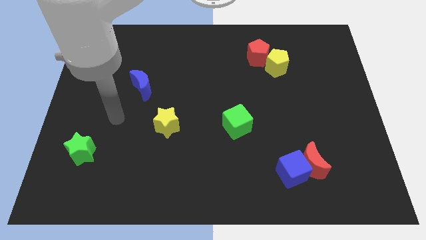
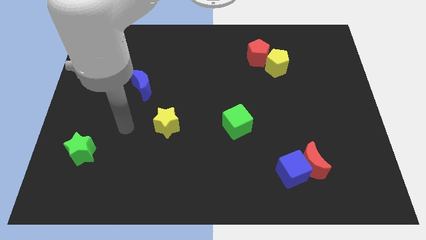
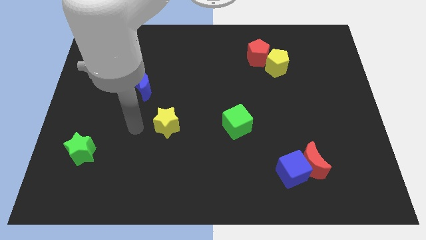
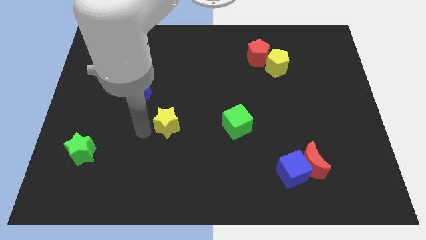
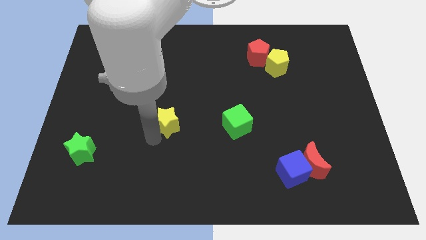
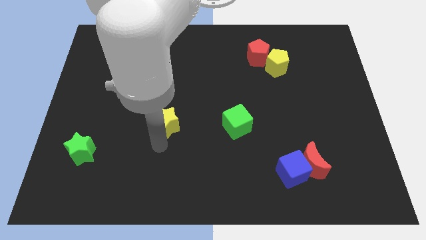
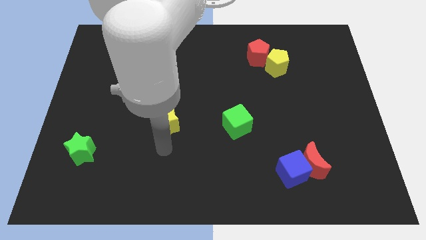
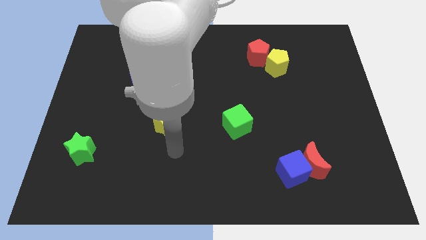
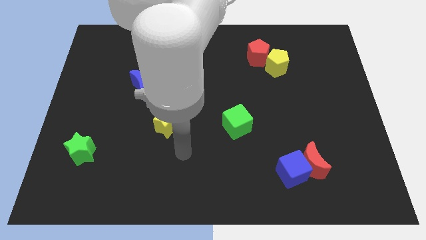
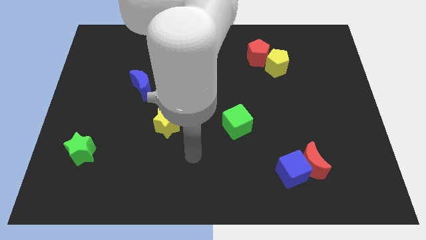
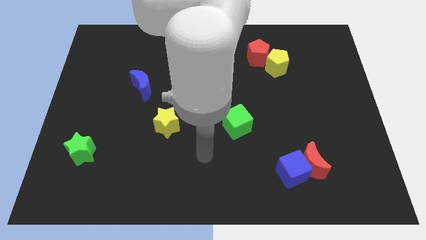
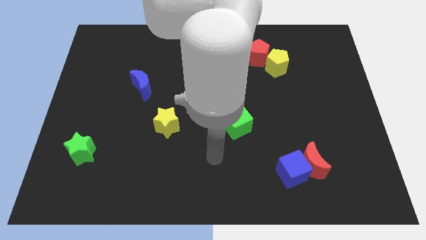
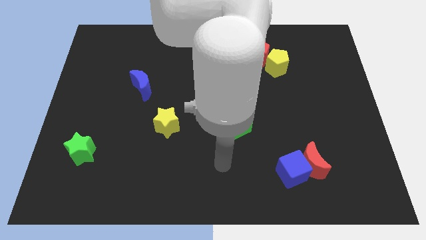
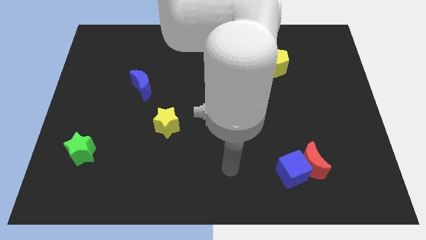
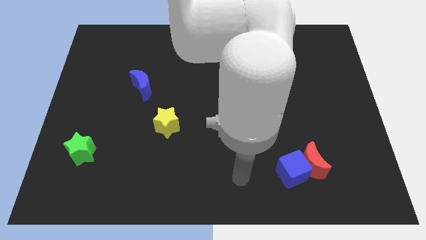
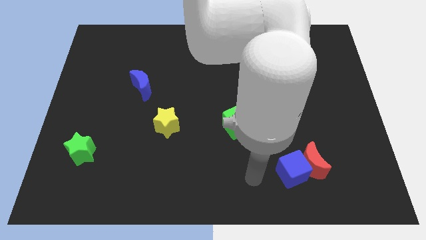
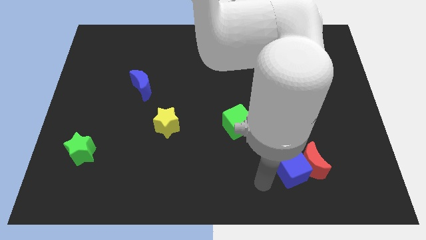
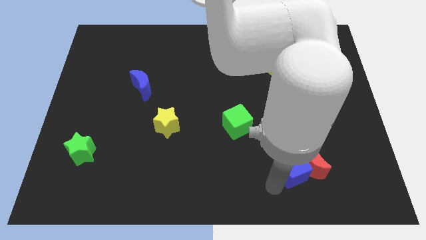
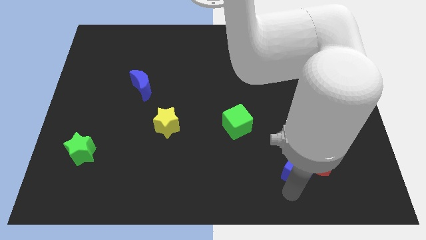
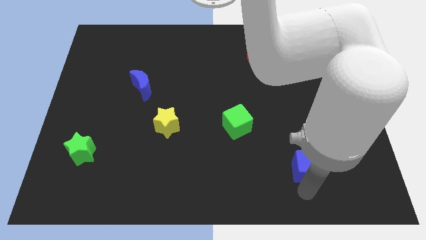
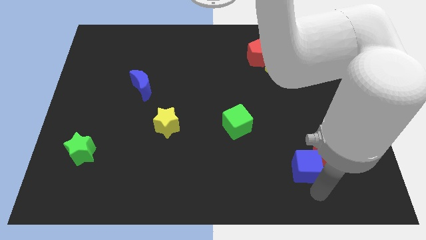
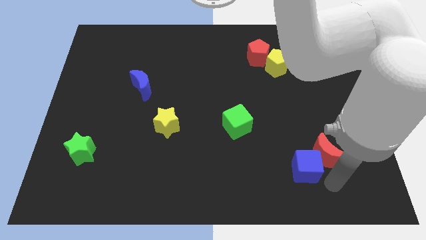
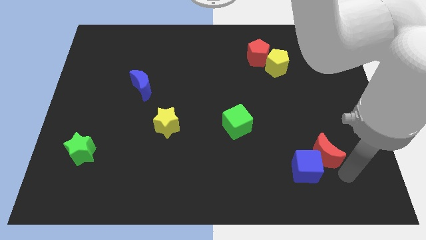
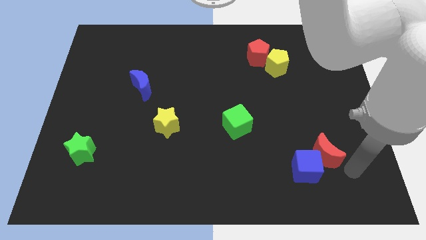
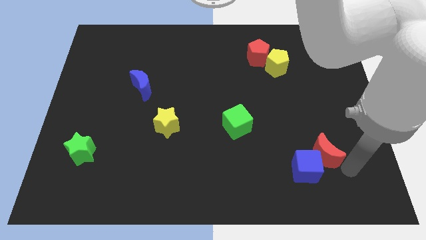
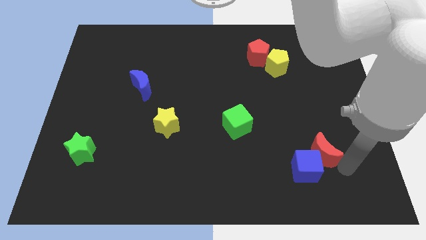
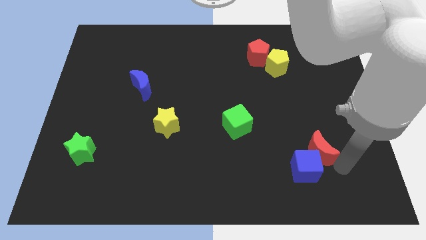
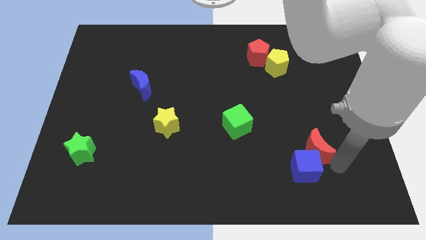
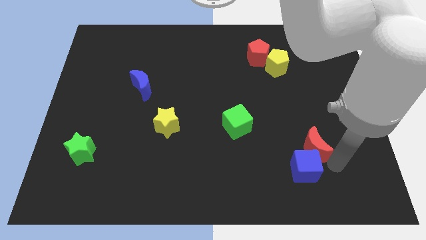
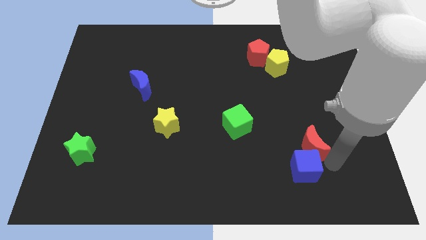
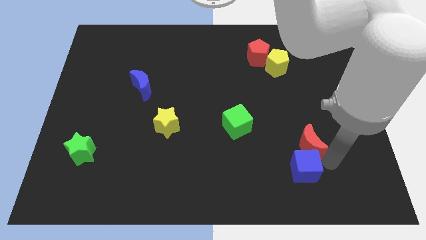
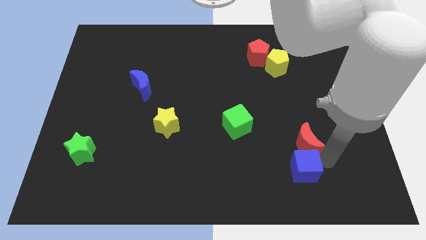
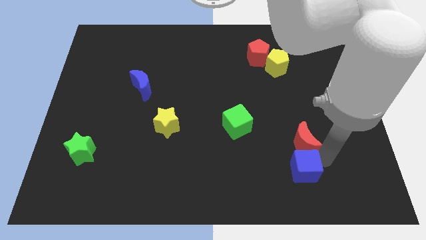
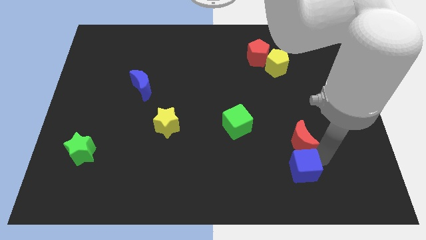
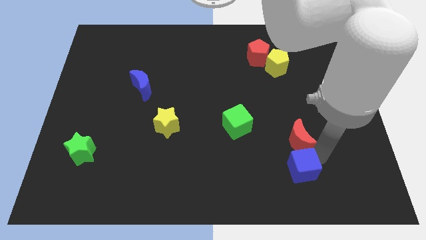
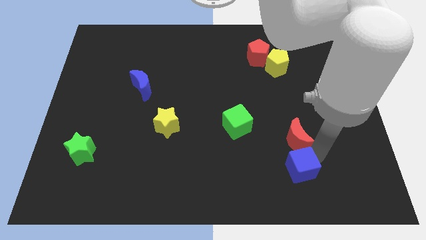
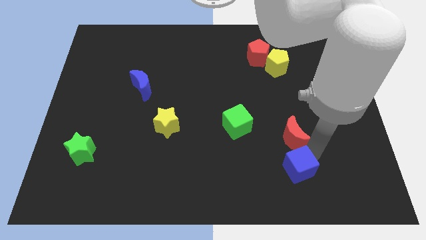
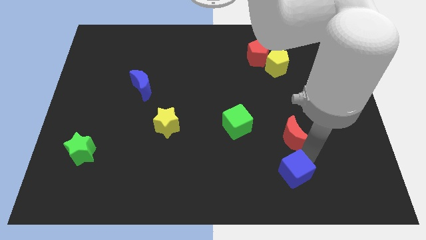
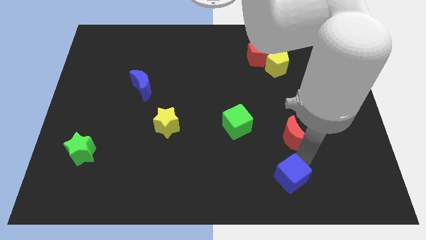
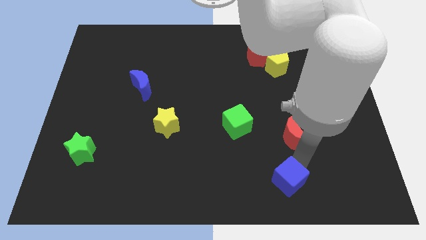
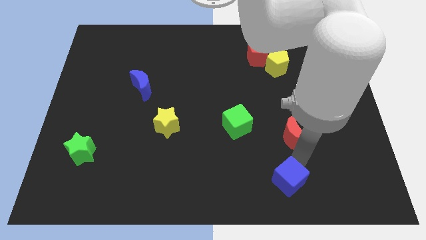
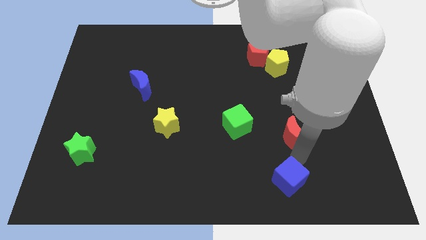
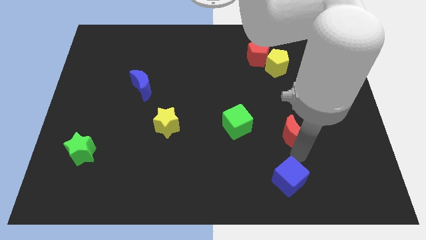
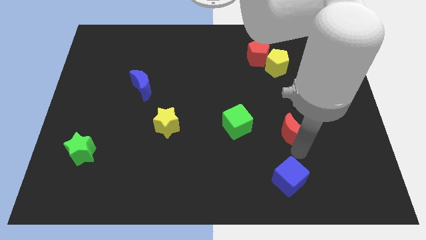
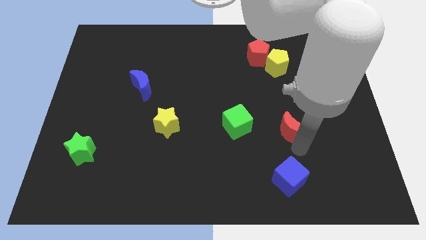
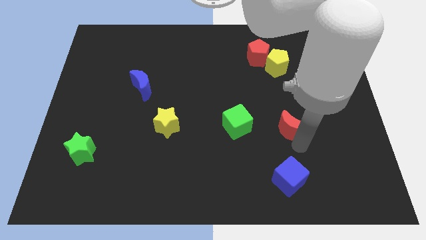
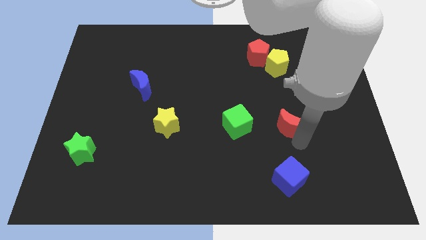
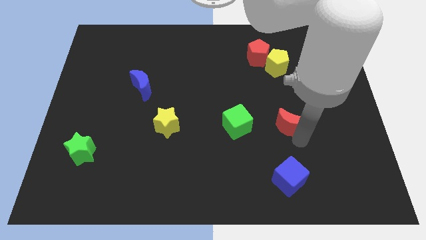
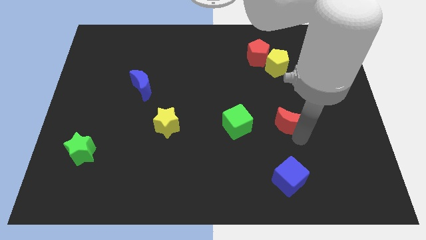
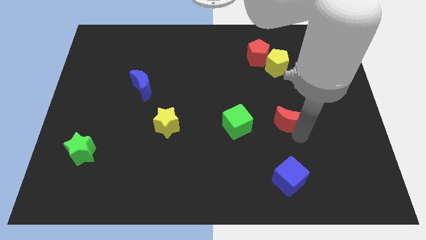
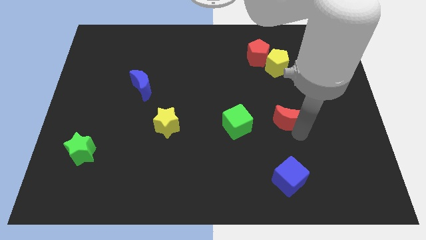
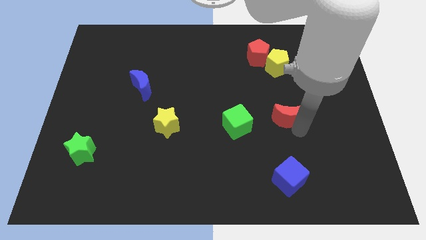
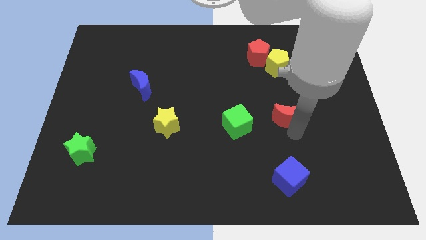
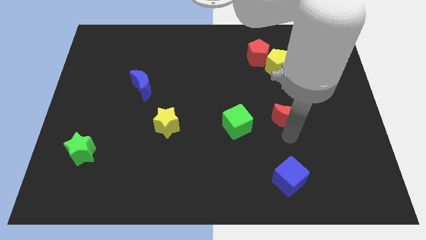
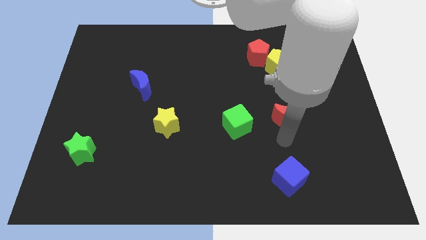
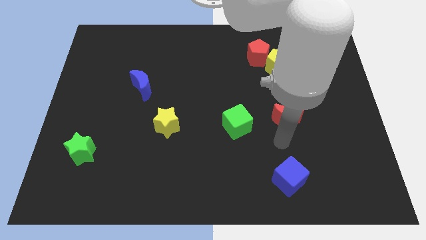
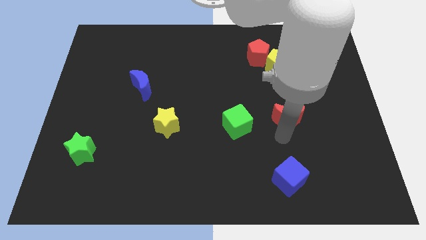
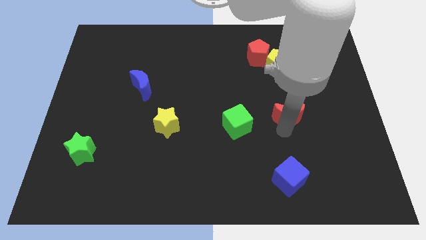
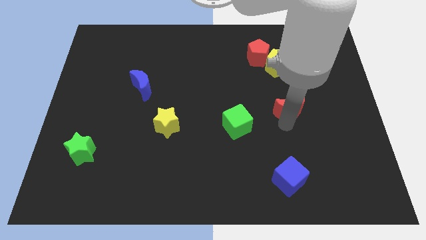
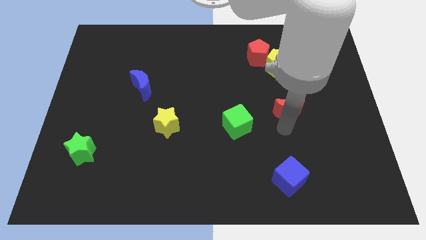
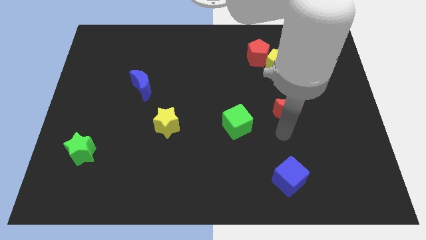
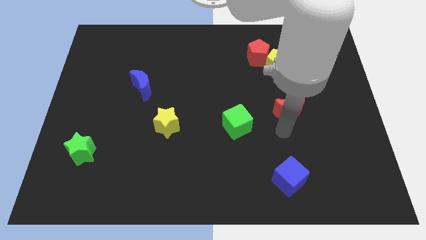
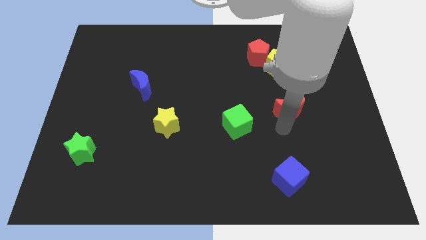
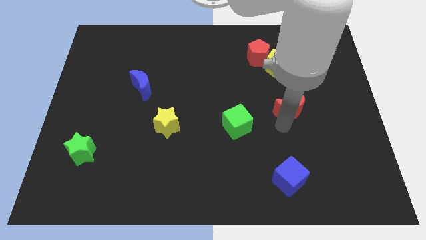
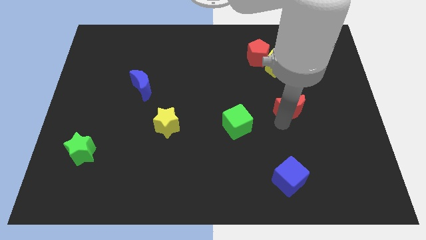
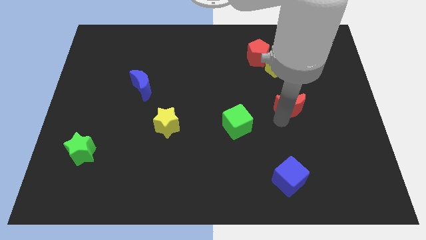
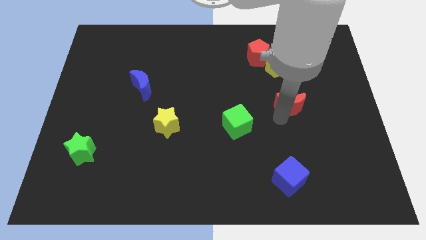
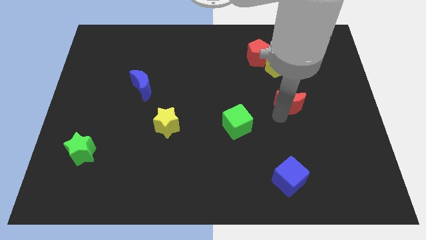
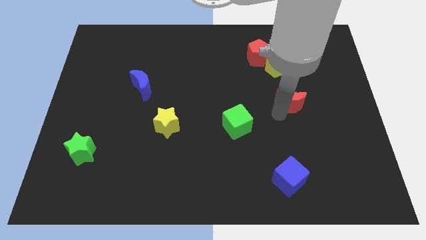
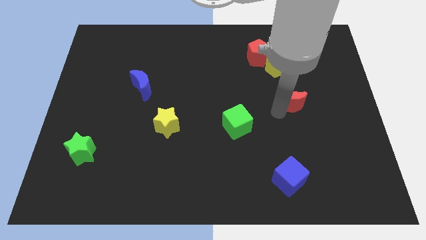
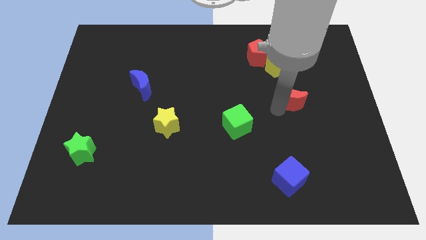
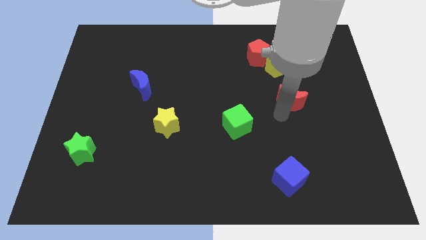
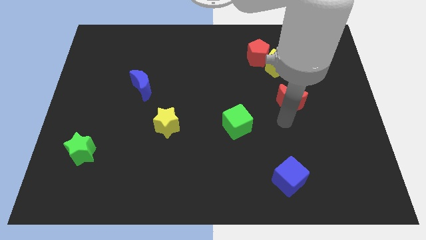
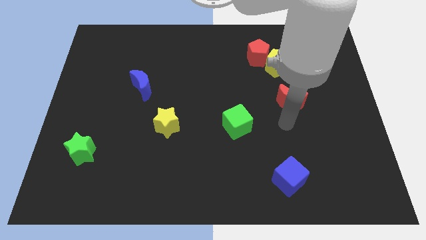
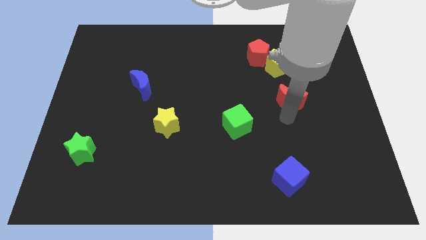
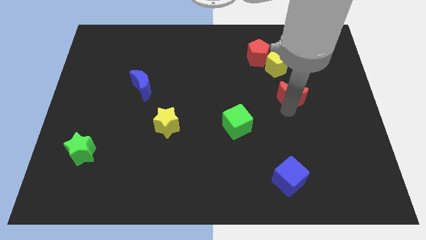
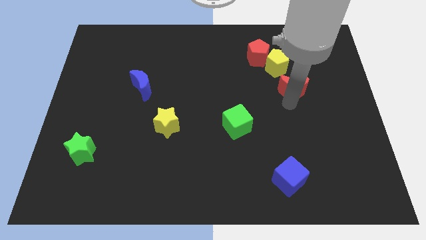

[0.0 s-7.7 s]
slide the red moon up

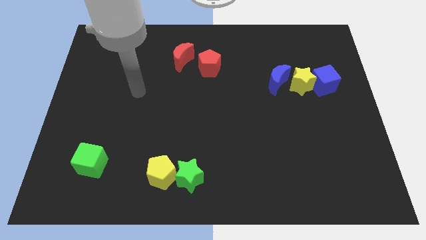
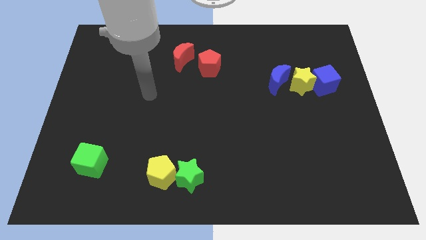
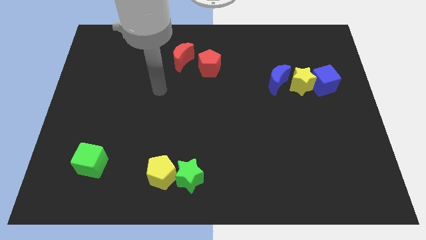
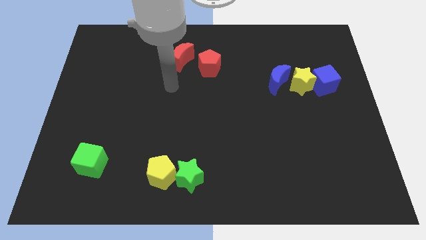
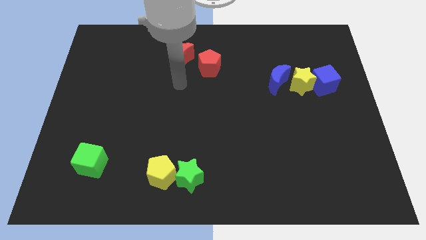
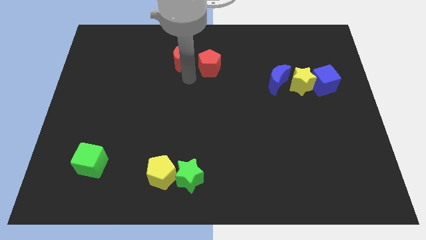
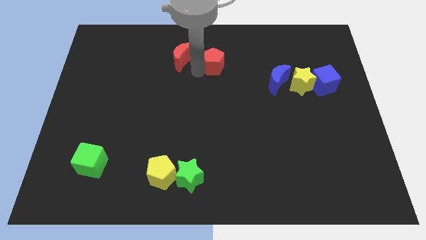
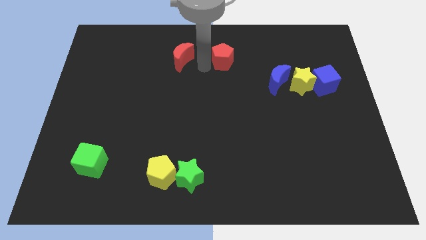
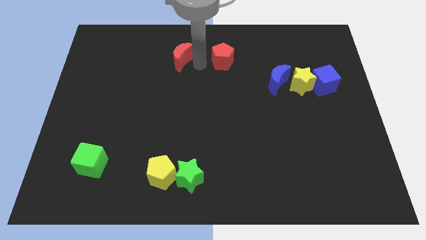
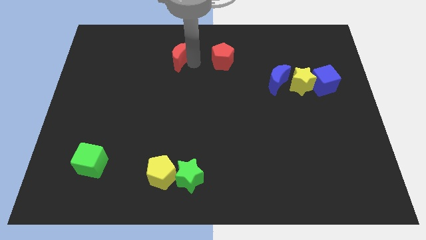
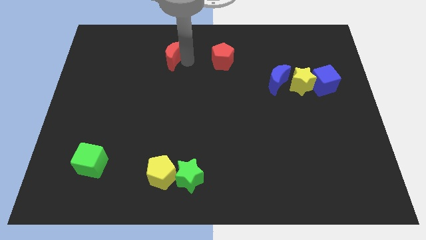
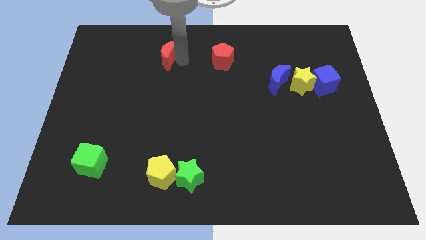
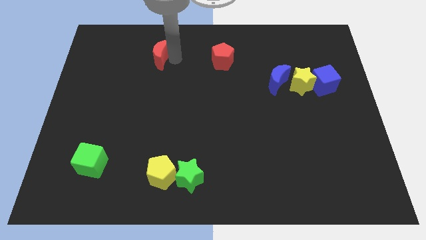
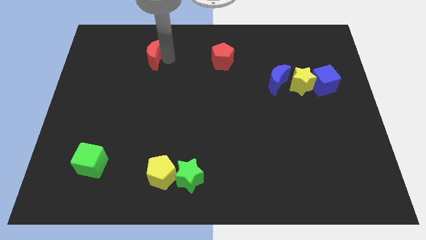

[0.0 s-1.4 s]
slide the red moon left somewhat
